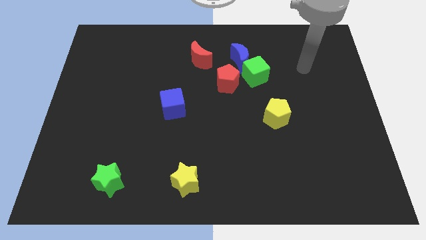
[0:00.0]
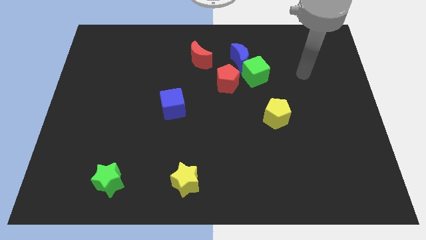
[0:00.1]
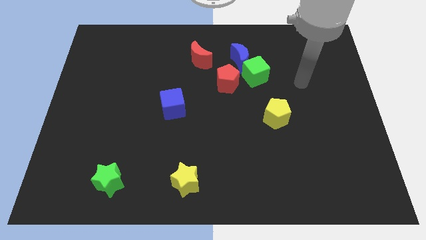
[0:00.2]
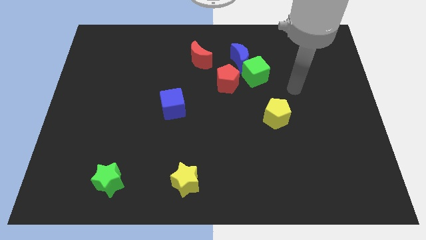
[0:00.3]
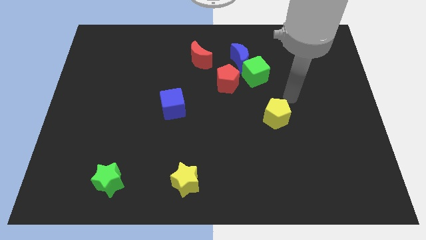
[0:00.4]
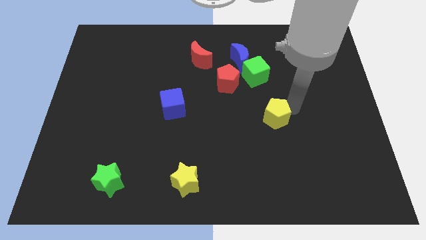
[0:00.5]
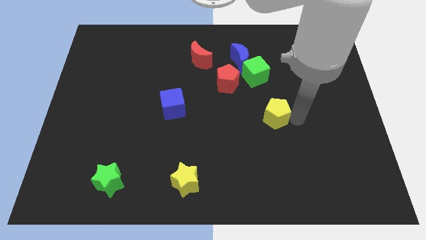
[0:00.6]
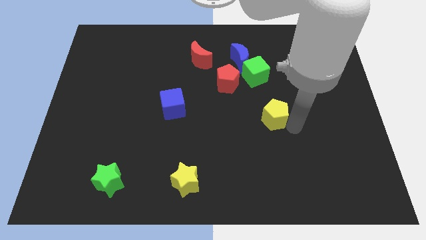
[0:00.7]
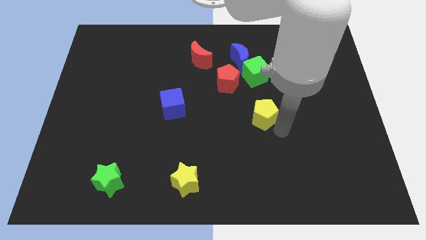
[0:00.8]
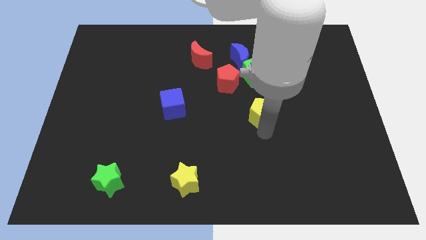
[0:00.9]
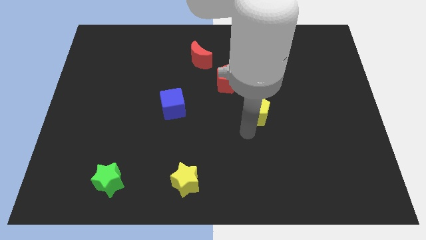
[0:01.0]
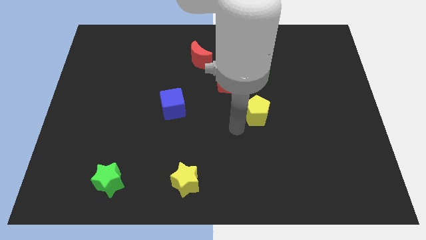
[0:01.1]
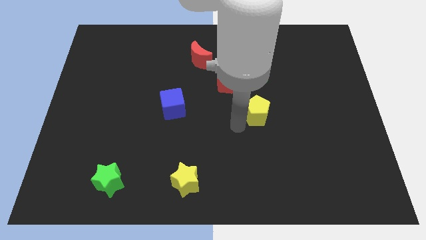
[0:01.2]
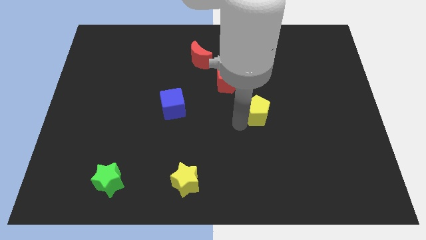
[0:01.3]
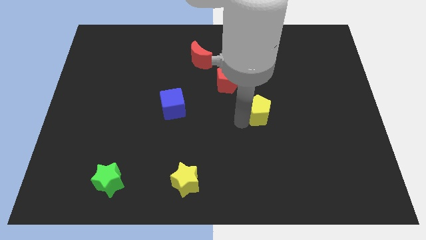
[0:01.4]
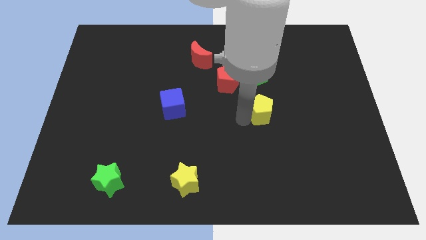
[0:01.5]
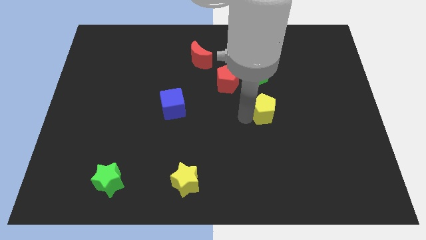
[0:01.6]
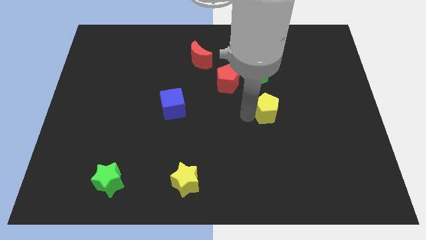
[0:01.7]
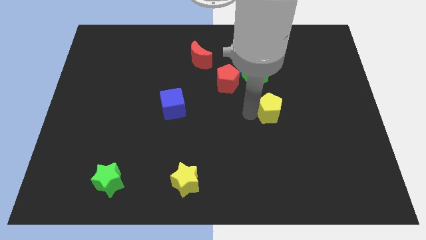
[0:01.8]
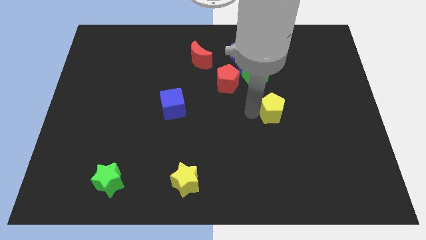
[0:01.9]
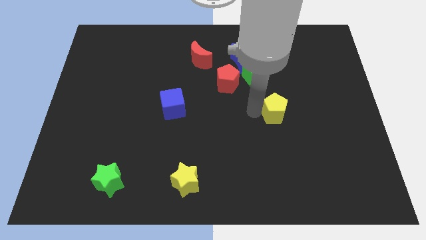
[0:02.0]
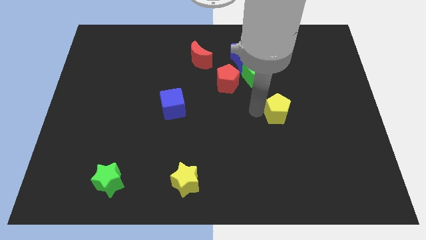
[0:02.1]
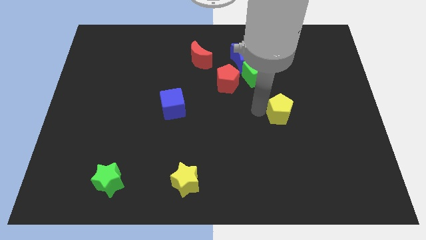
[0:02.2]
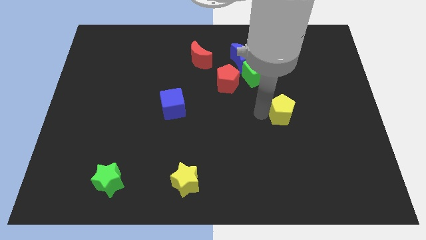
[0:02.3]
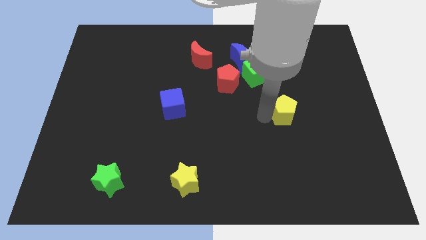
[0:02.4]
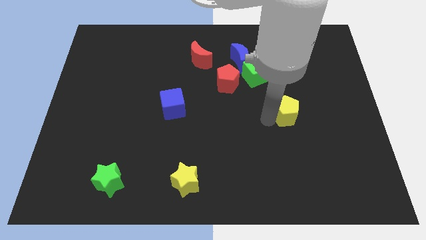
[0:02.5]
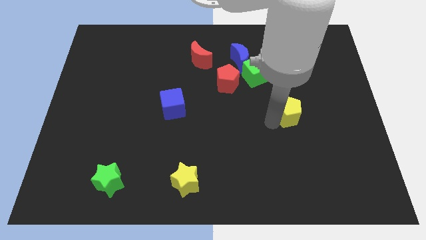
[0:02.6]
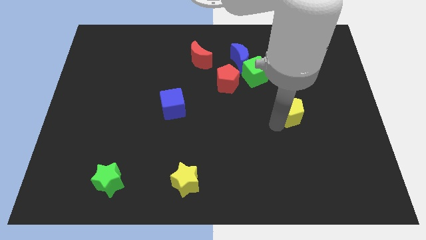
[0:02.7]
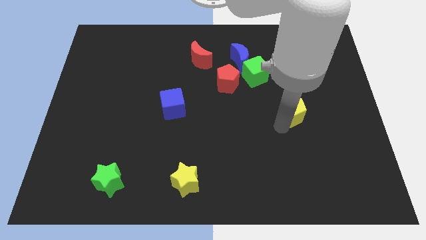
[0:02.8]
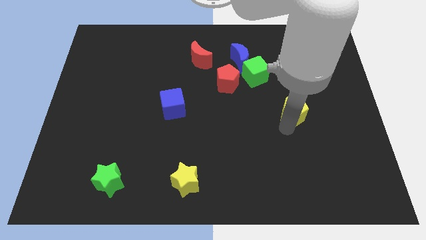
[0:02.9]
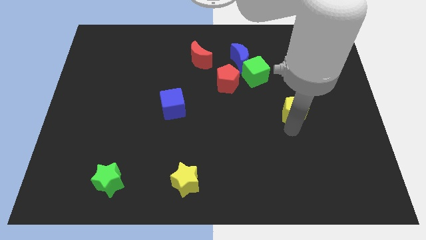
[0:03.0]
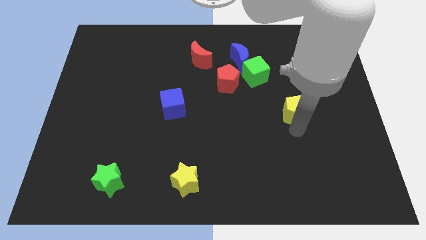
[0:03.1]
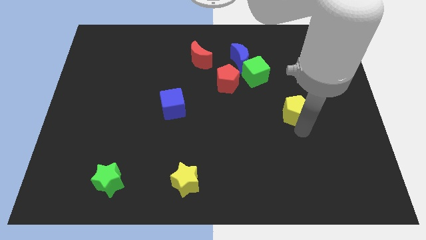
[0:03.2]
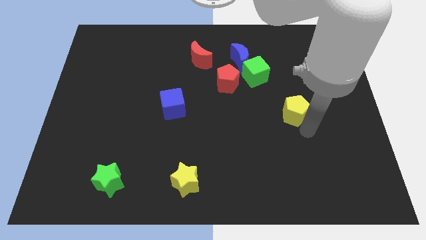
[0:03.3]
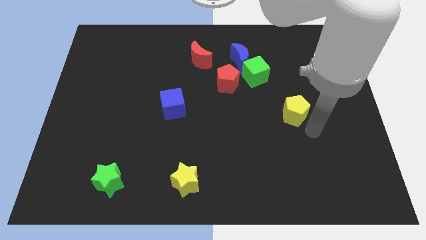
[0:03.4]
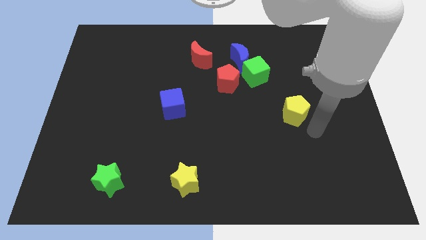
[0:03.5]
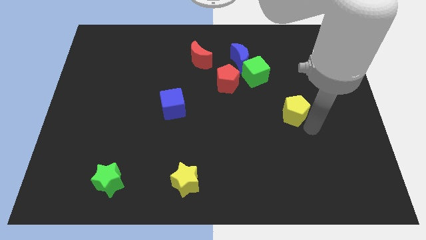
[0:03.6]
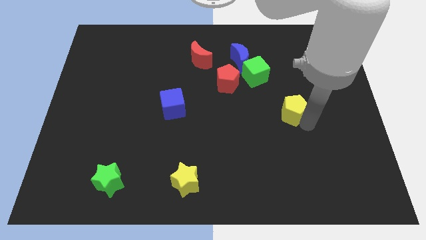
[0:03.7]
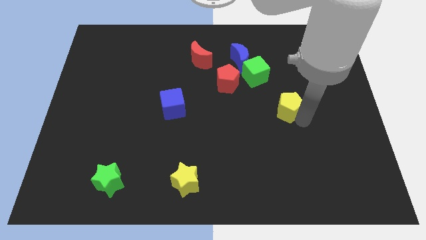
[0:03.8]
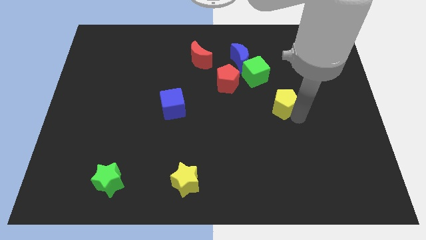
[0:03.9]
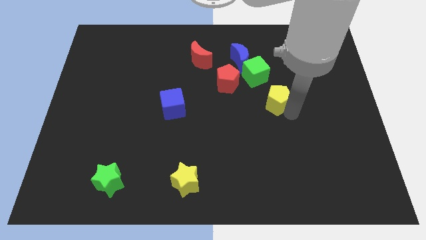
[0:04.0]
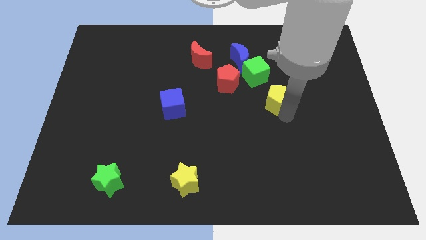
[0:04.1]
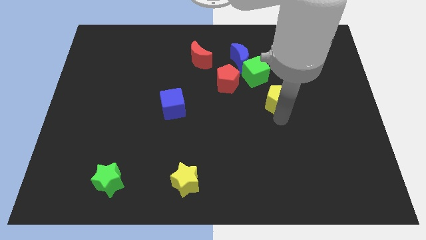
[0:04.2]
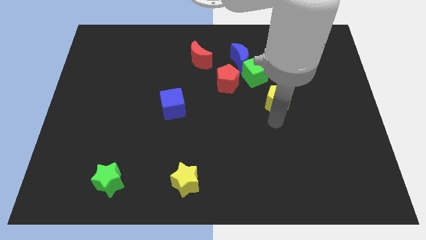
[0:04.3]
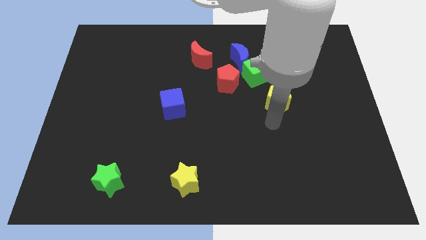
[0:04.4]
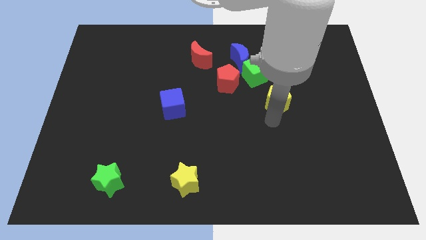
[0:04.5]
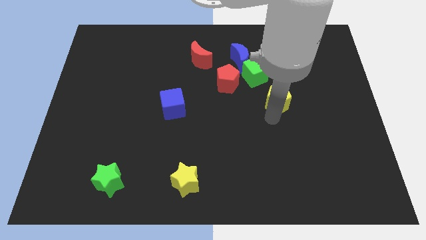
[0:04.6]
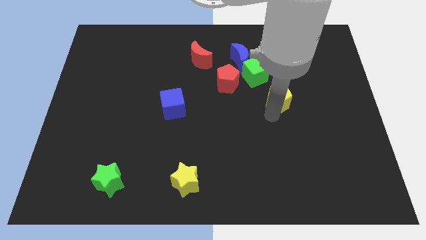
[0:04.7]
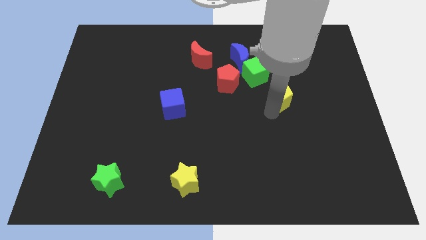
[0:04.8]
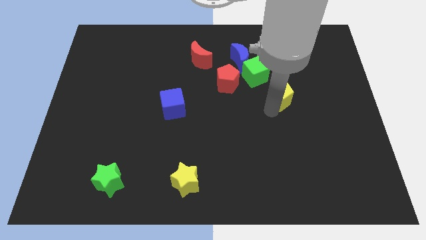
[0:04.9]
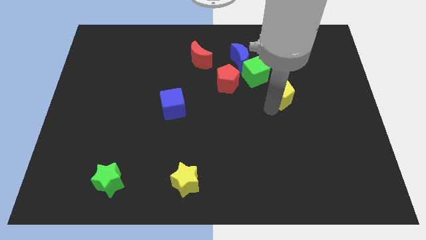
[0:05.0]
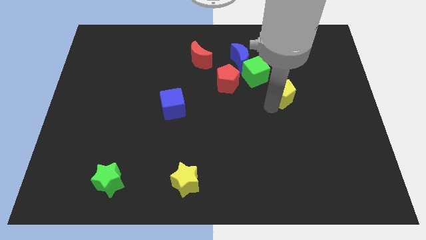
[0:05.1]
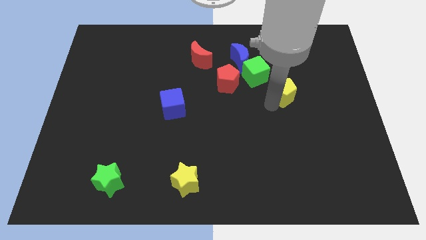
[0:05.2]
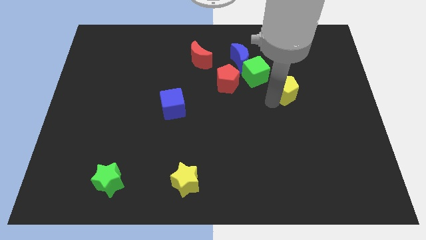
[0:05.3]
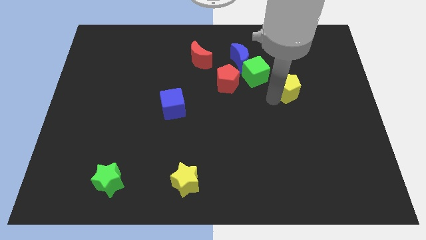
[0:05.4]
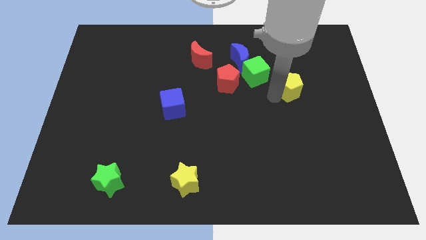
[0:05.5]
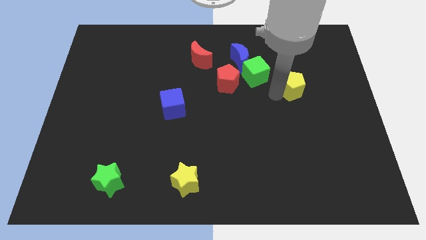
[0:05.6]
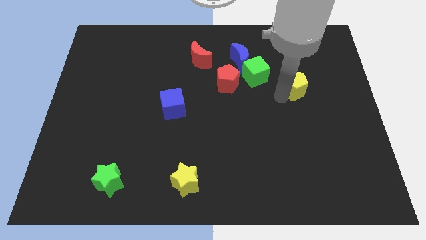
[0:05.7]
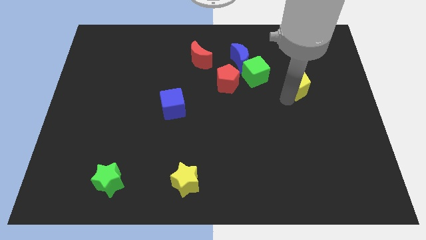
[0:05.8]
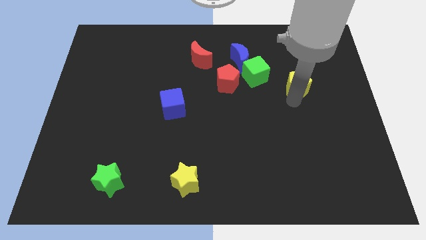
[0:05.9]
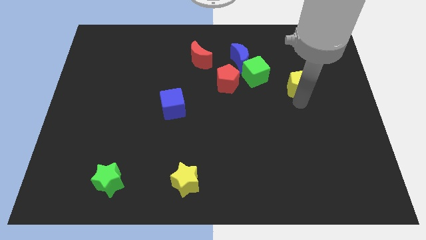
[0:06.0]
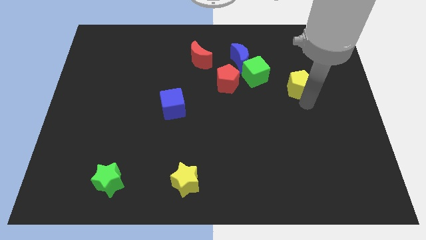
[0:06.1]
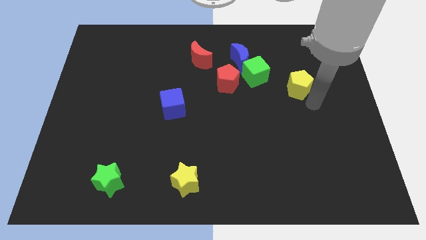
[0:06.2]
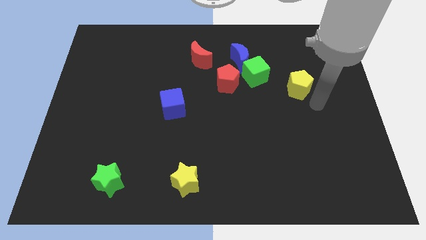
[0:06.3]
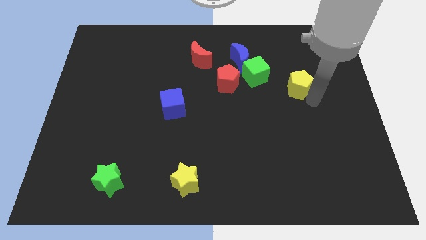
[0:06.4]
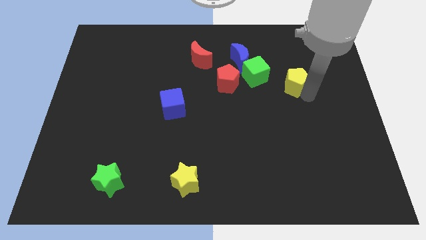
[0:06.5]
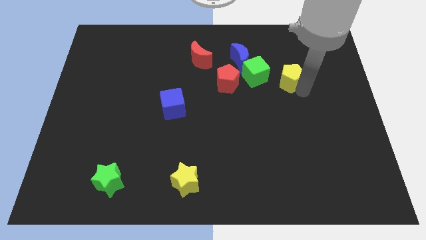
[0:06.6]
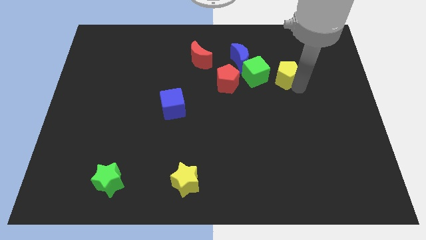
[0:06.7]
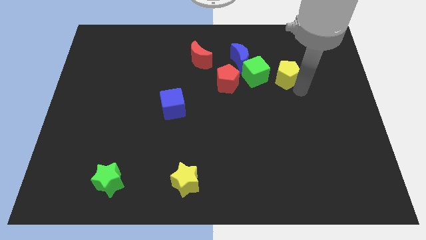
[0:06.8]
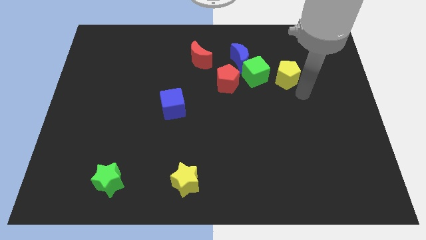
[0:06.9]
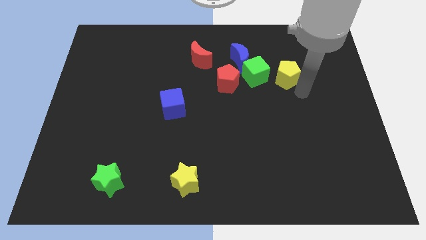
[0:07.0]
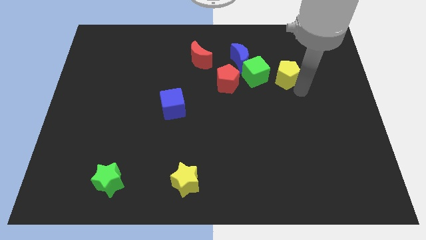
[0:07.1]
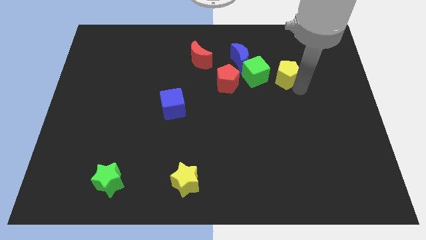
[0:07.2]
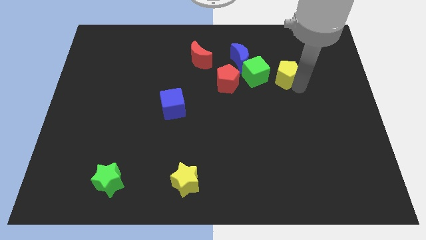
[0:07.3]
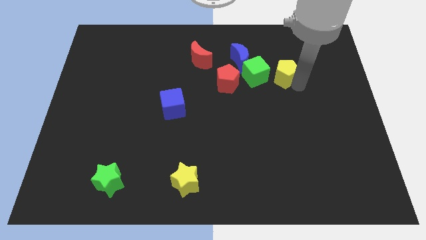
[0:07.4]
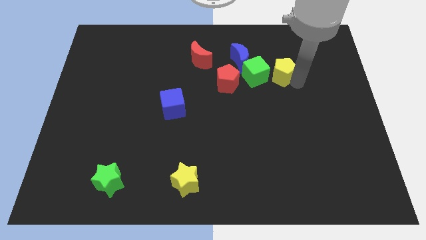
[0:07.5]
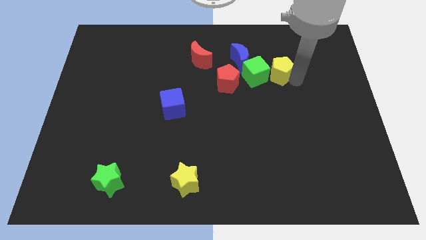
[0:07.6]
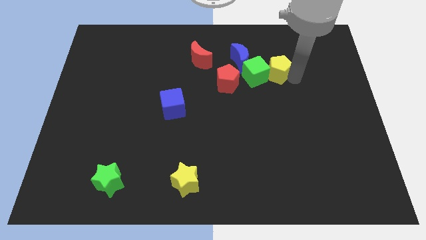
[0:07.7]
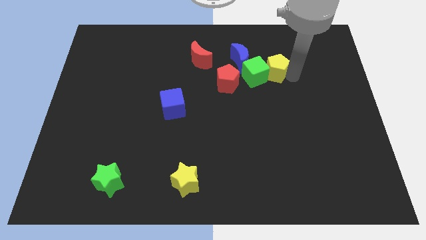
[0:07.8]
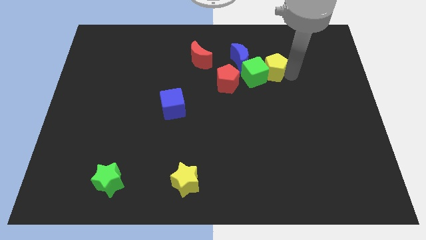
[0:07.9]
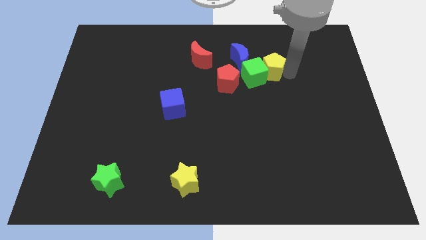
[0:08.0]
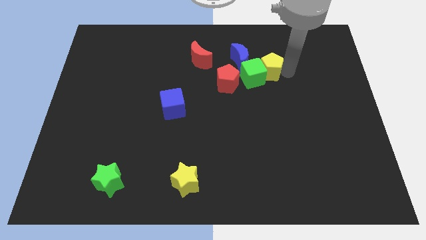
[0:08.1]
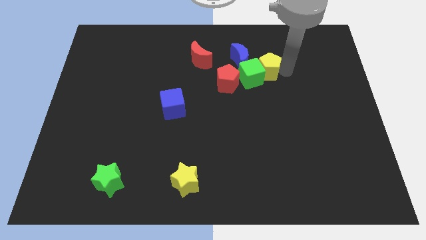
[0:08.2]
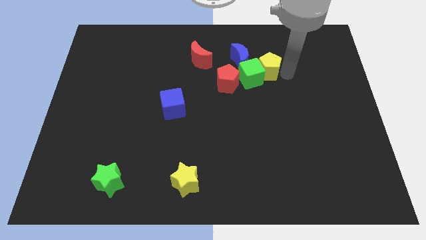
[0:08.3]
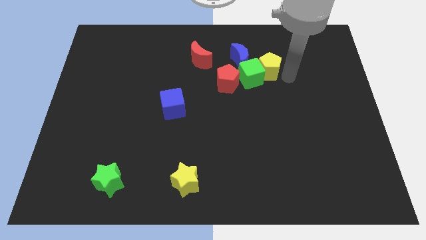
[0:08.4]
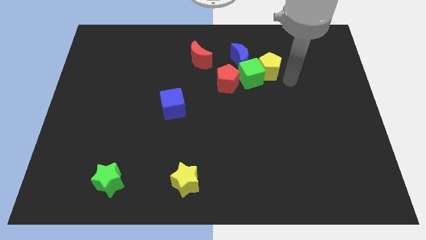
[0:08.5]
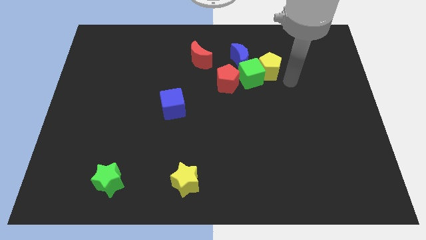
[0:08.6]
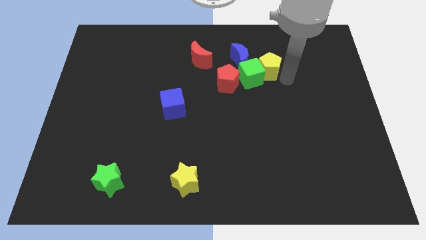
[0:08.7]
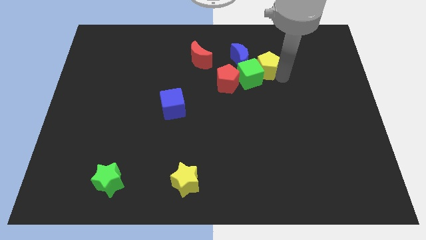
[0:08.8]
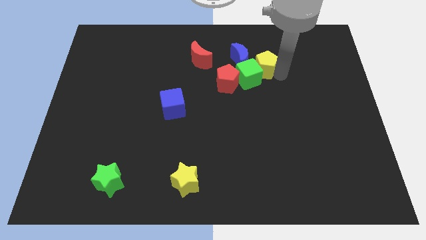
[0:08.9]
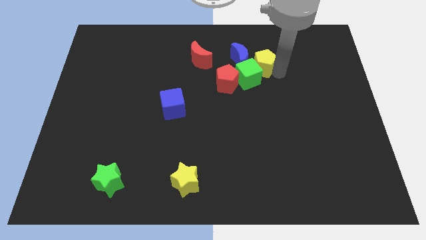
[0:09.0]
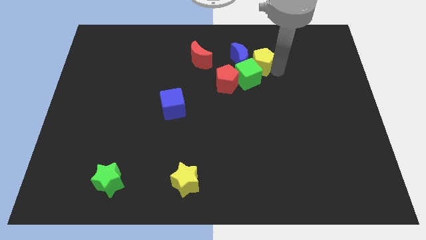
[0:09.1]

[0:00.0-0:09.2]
push the yellow pentagon next to the blue moon
